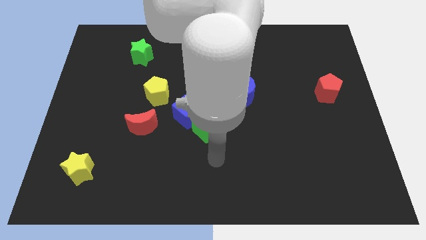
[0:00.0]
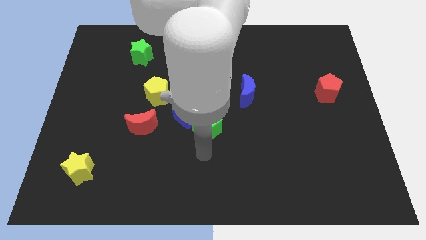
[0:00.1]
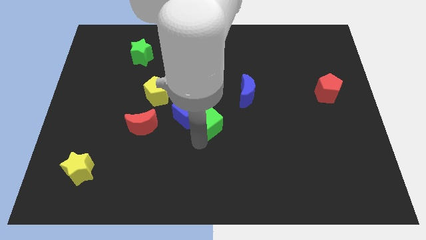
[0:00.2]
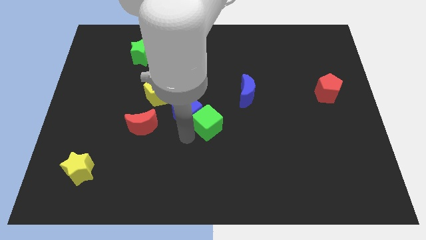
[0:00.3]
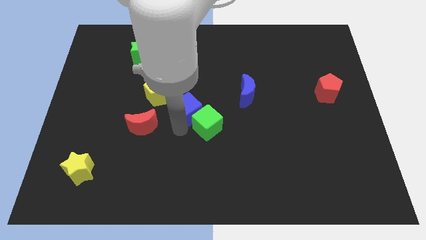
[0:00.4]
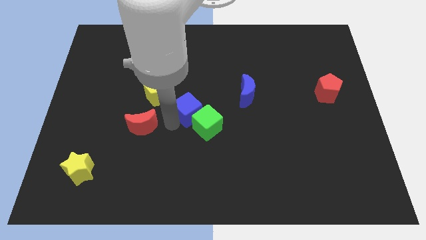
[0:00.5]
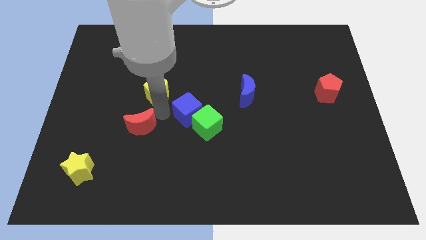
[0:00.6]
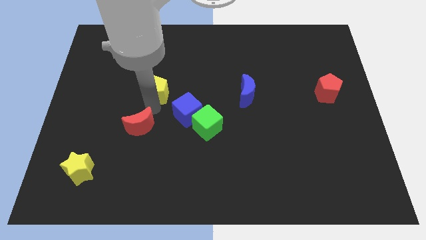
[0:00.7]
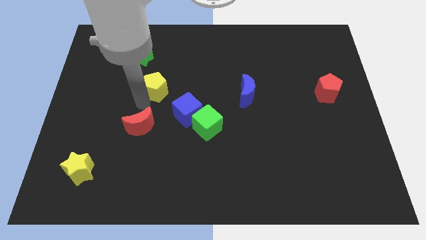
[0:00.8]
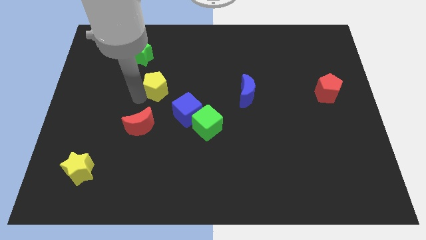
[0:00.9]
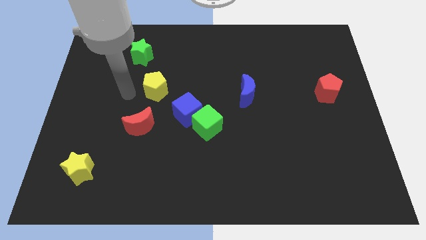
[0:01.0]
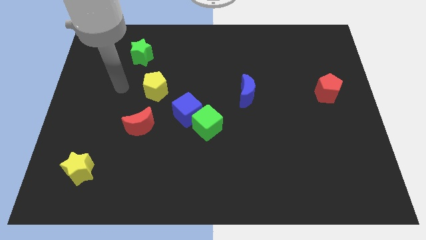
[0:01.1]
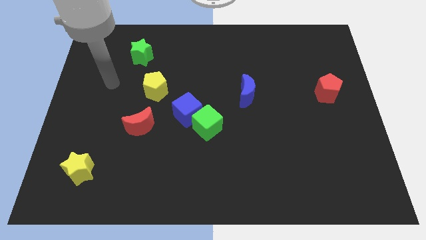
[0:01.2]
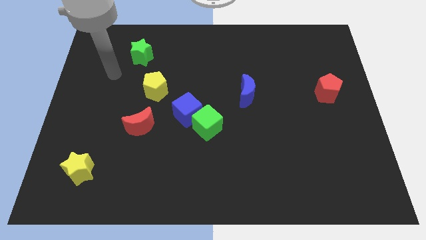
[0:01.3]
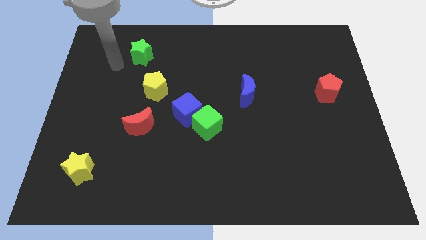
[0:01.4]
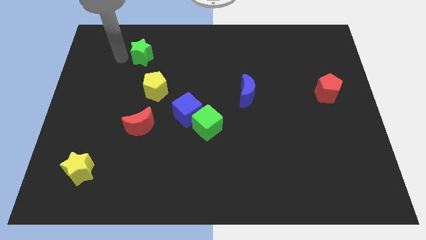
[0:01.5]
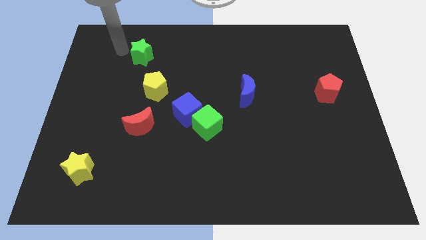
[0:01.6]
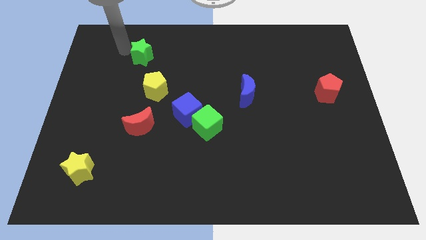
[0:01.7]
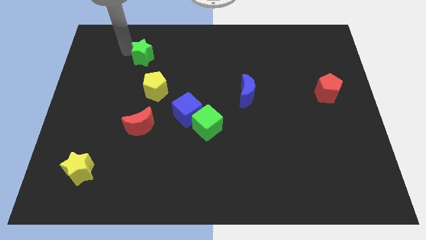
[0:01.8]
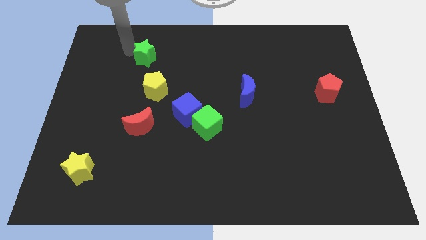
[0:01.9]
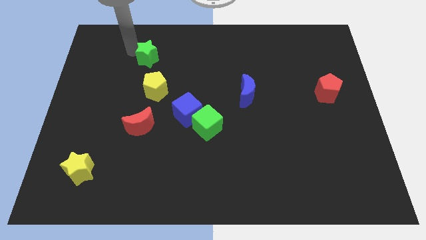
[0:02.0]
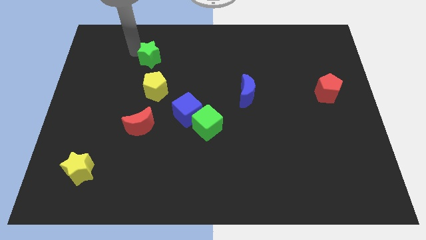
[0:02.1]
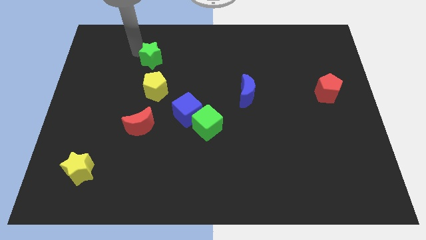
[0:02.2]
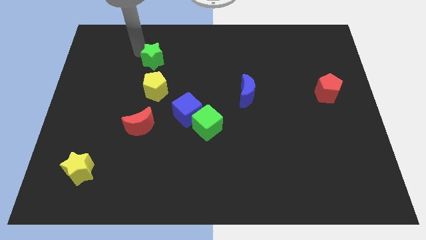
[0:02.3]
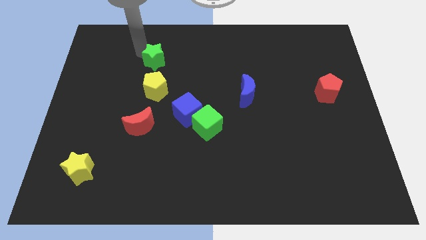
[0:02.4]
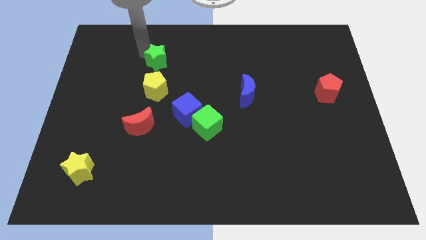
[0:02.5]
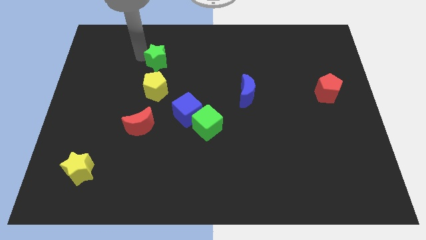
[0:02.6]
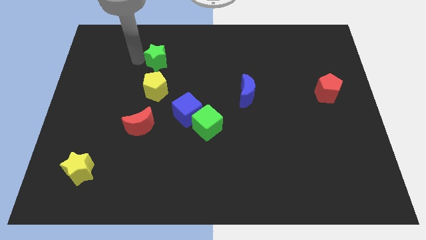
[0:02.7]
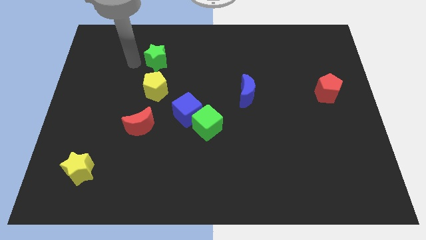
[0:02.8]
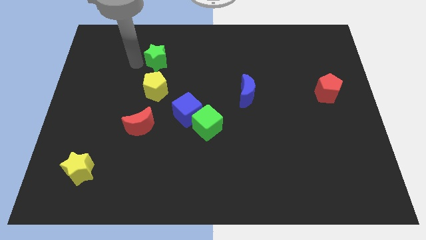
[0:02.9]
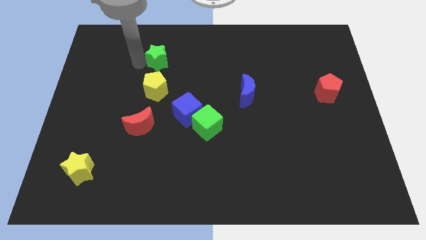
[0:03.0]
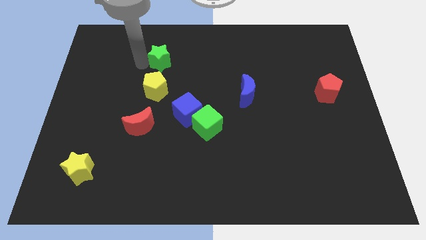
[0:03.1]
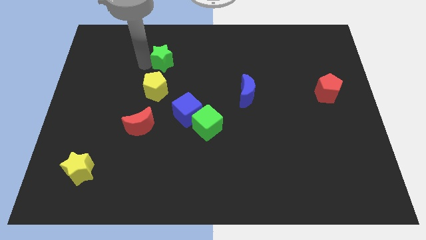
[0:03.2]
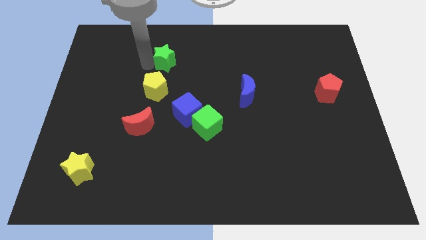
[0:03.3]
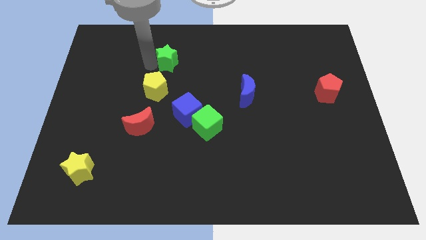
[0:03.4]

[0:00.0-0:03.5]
push the green star somewhat right

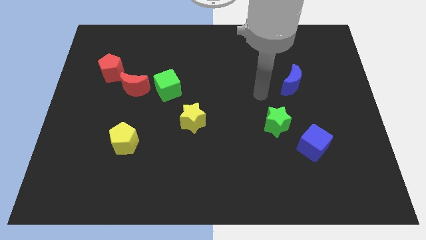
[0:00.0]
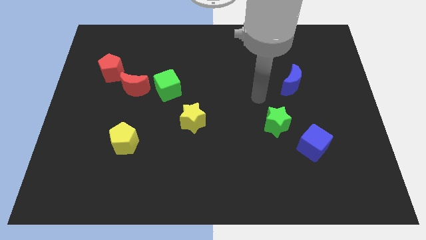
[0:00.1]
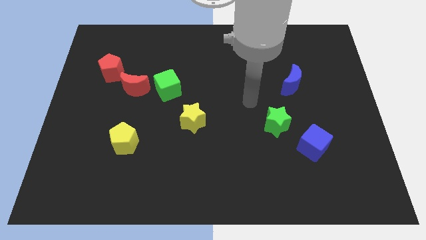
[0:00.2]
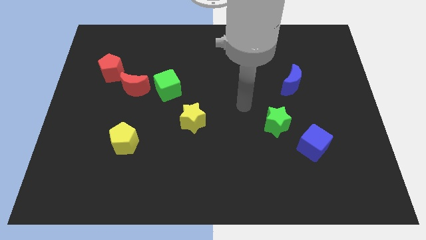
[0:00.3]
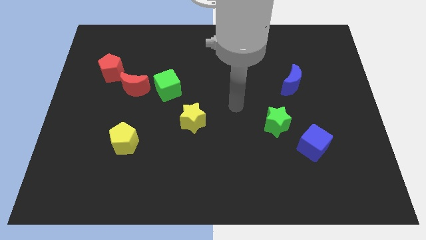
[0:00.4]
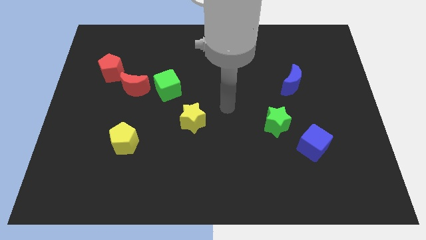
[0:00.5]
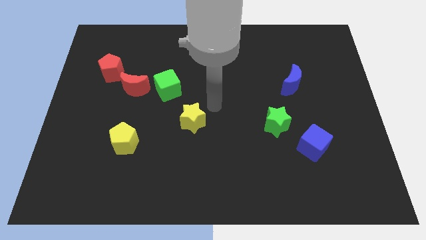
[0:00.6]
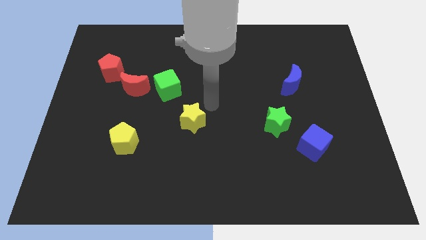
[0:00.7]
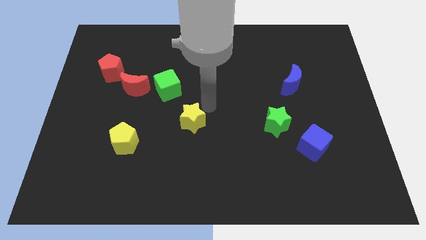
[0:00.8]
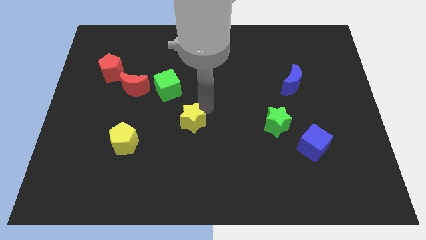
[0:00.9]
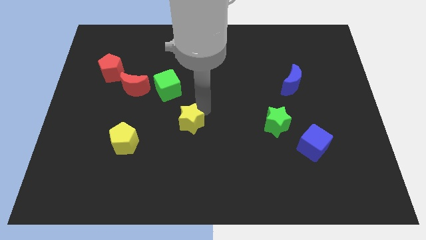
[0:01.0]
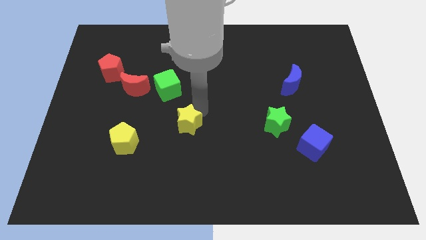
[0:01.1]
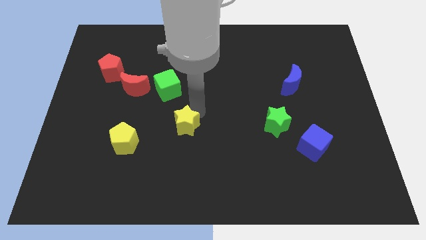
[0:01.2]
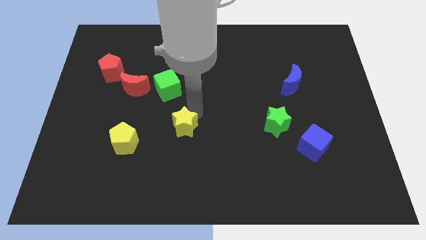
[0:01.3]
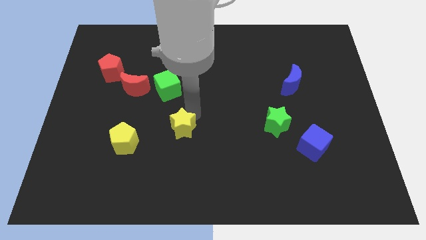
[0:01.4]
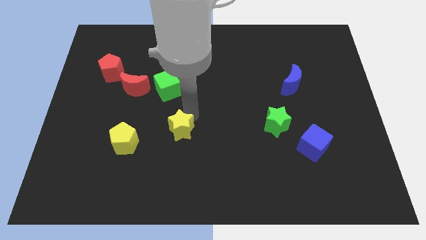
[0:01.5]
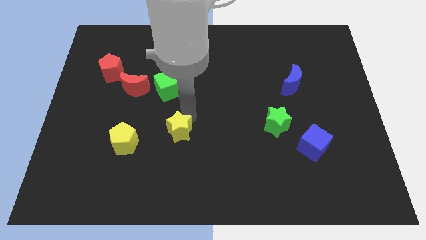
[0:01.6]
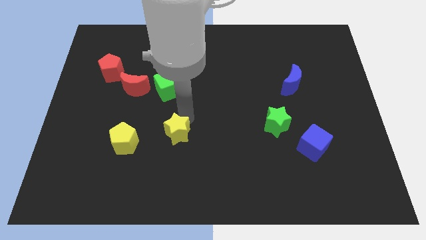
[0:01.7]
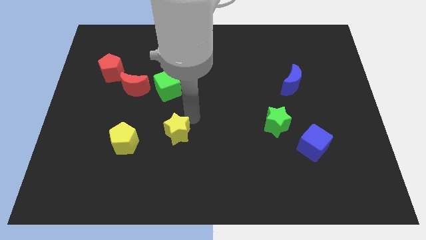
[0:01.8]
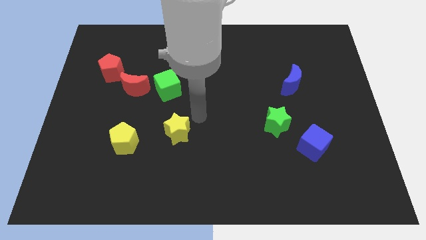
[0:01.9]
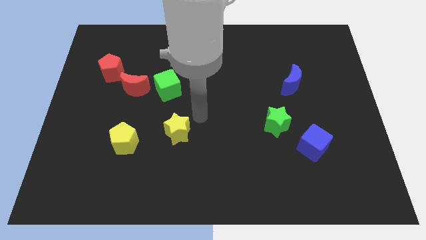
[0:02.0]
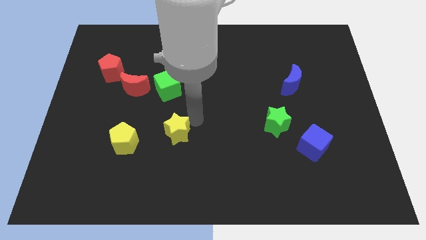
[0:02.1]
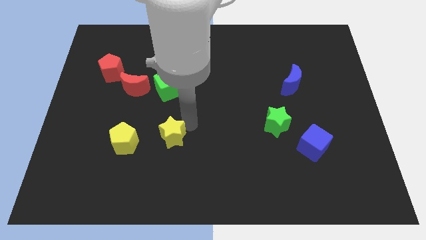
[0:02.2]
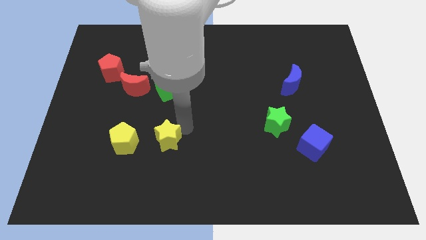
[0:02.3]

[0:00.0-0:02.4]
slightly move the yellow star downwards and to the left

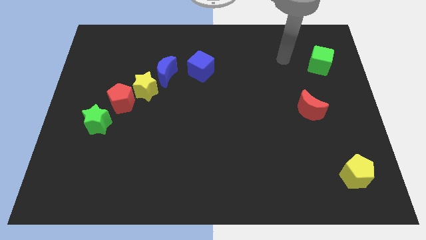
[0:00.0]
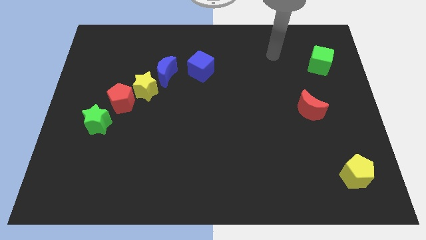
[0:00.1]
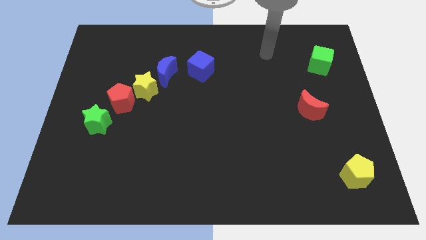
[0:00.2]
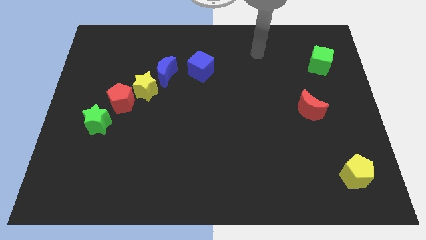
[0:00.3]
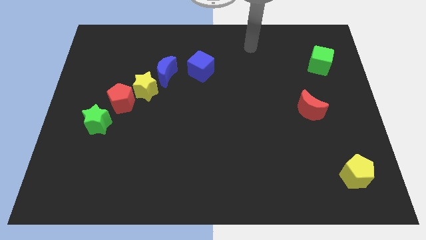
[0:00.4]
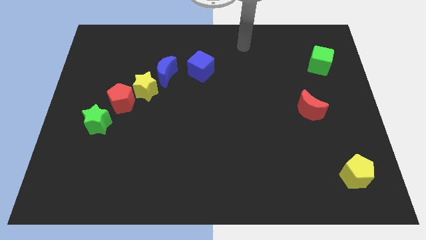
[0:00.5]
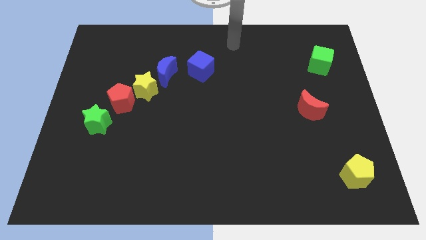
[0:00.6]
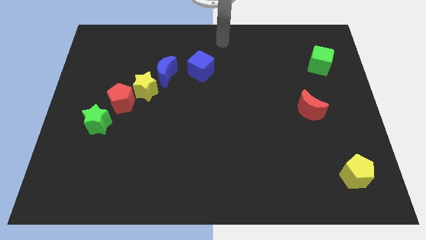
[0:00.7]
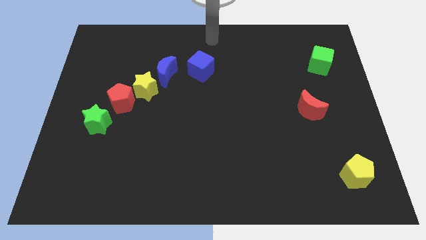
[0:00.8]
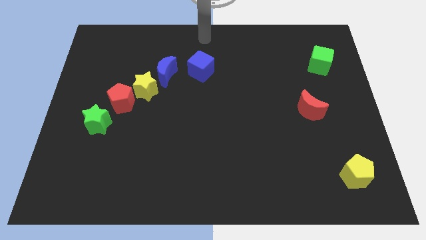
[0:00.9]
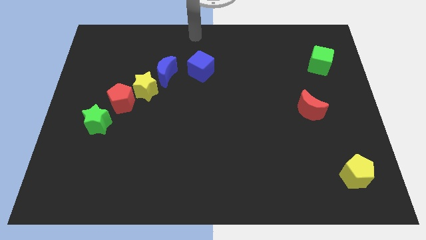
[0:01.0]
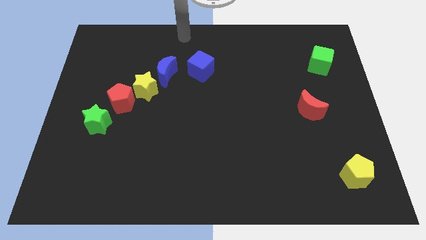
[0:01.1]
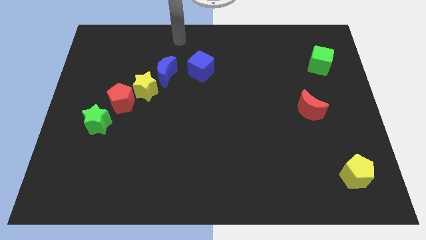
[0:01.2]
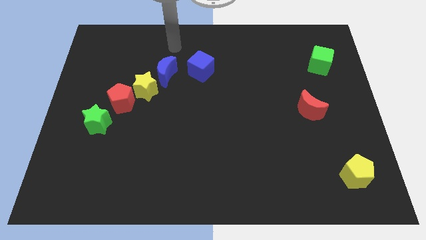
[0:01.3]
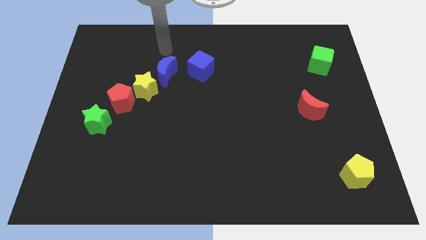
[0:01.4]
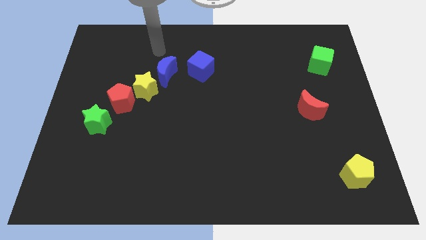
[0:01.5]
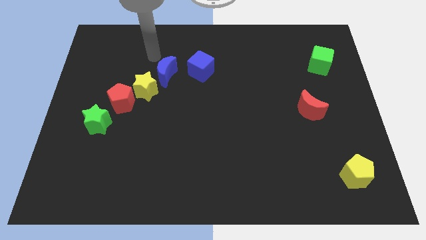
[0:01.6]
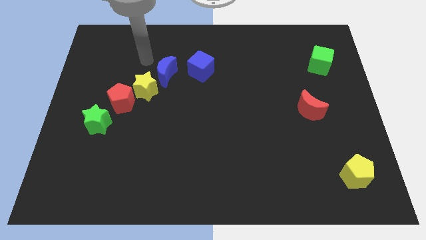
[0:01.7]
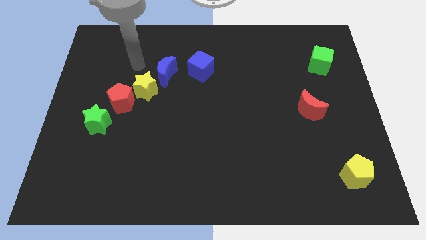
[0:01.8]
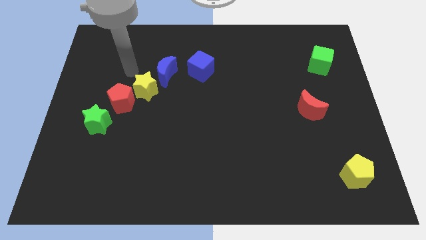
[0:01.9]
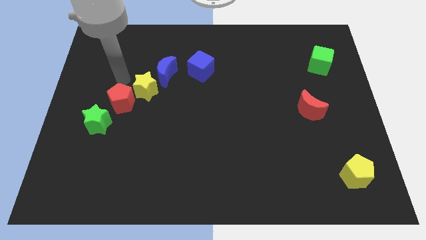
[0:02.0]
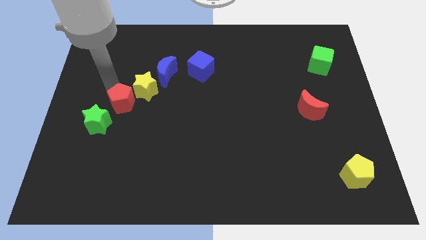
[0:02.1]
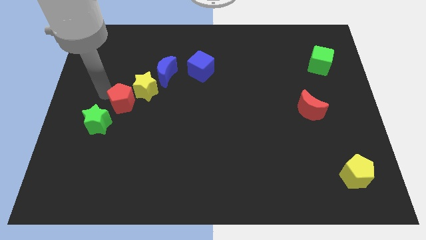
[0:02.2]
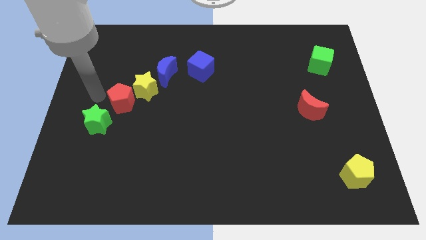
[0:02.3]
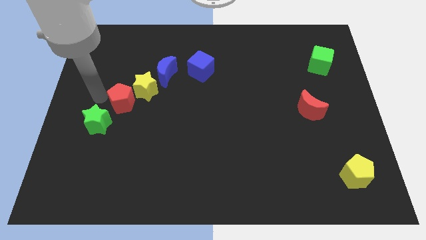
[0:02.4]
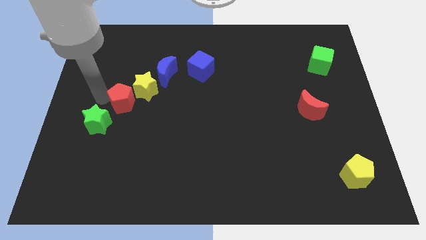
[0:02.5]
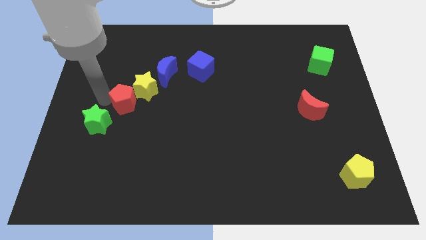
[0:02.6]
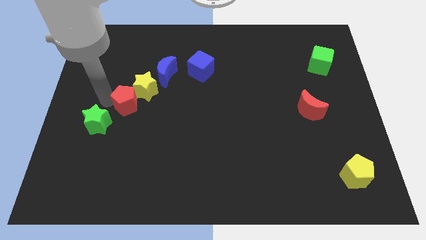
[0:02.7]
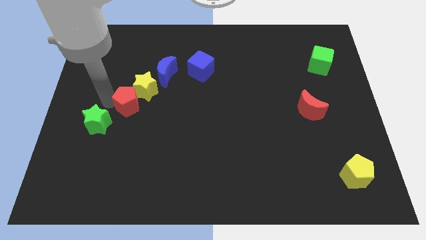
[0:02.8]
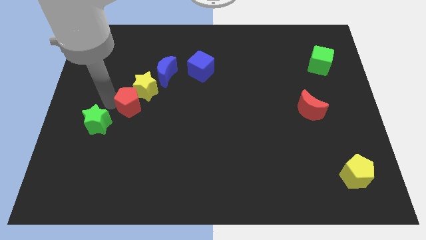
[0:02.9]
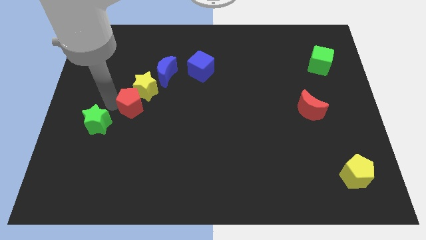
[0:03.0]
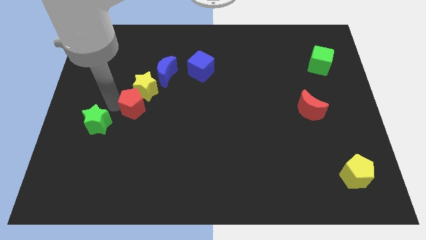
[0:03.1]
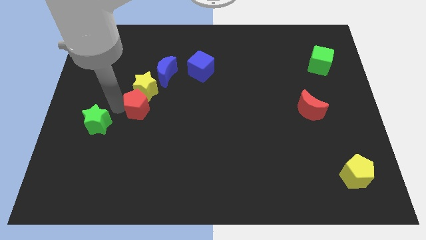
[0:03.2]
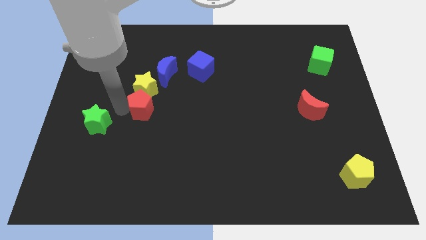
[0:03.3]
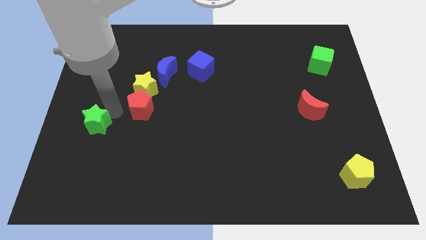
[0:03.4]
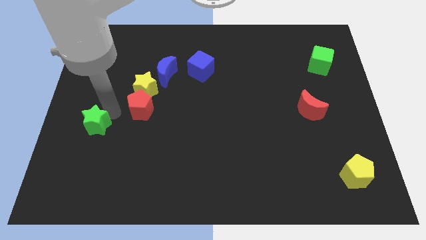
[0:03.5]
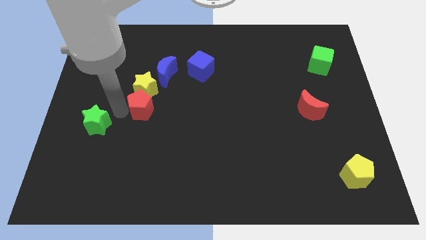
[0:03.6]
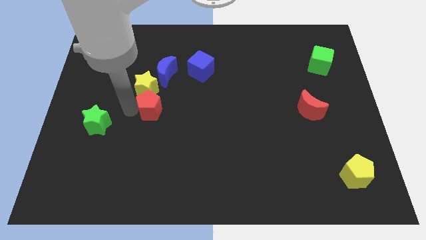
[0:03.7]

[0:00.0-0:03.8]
move the red pentagon somewhat to the right
